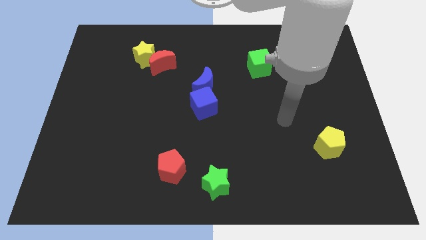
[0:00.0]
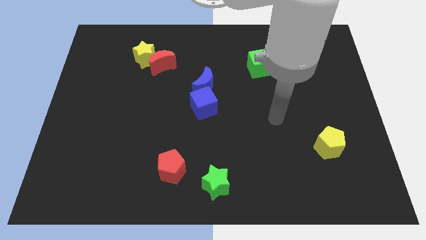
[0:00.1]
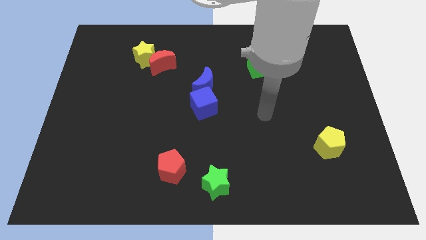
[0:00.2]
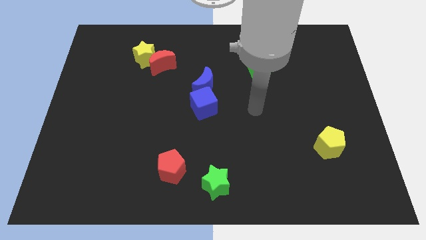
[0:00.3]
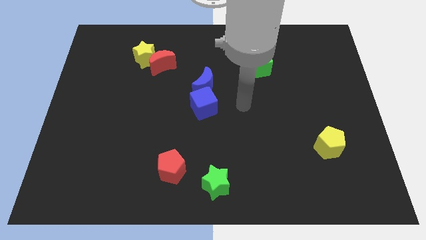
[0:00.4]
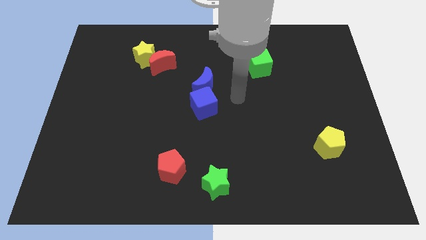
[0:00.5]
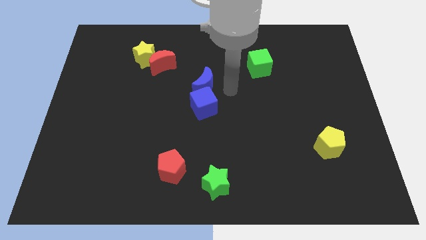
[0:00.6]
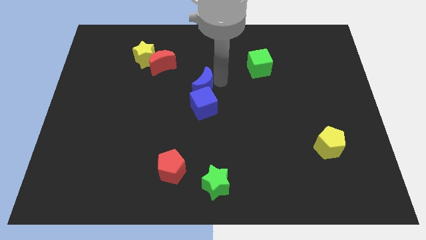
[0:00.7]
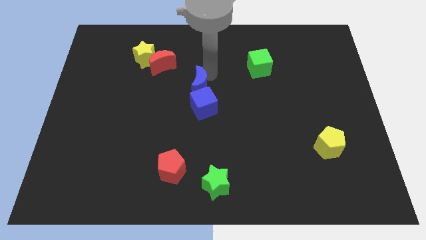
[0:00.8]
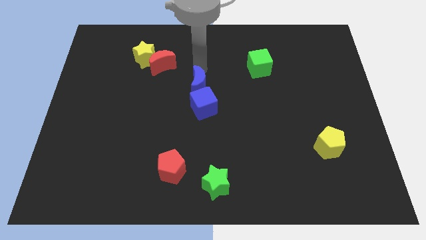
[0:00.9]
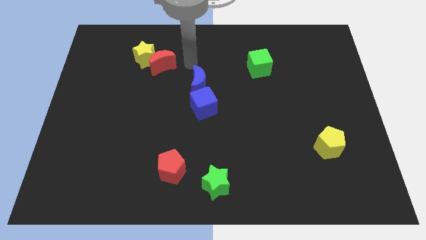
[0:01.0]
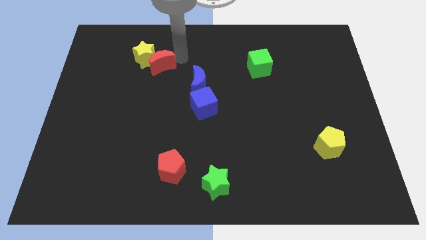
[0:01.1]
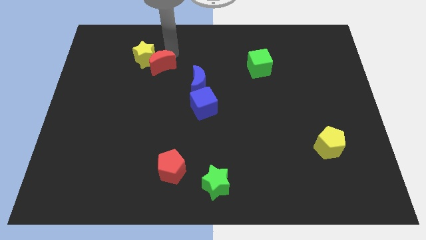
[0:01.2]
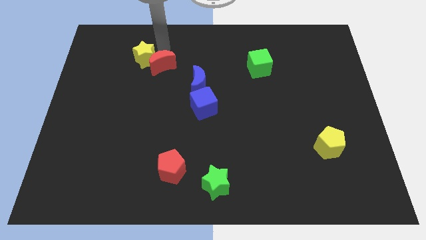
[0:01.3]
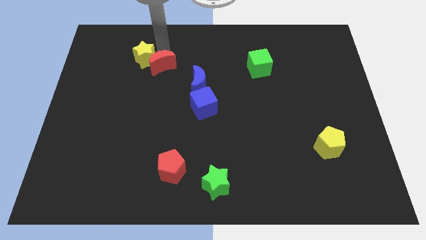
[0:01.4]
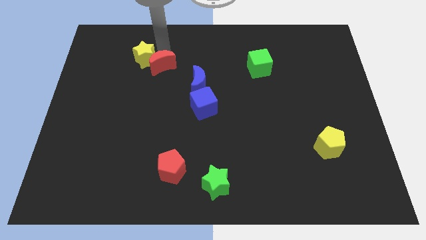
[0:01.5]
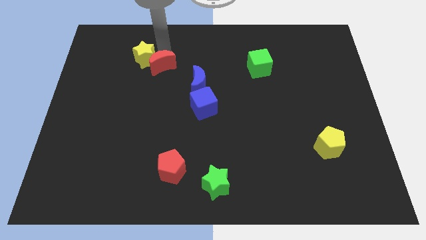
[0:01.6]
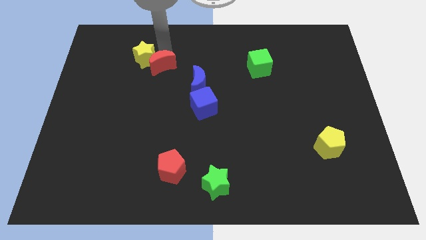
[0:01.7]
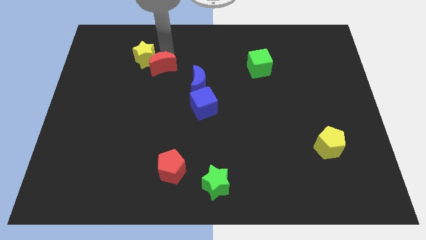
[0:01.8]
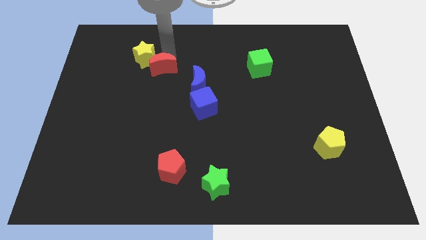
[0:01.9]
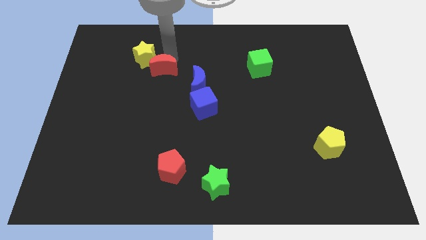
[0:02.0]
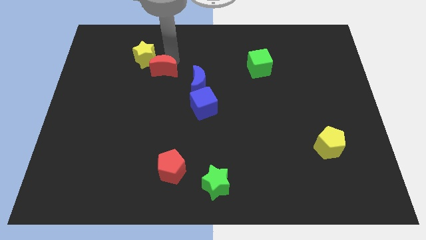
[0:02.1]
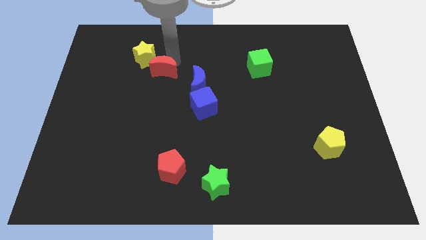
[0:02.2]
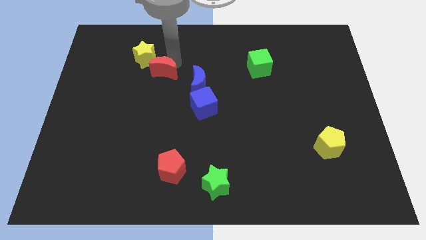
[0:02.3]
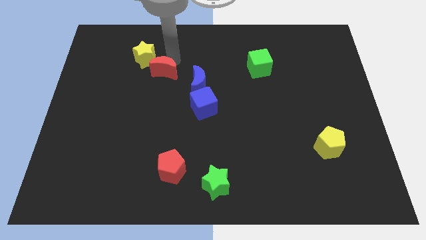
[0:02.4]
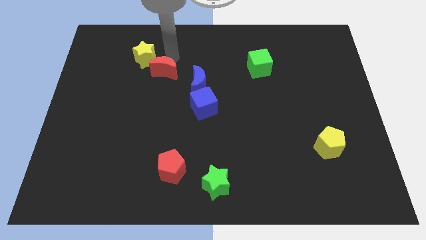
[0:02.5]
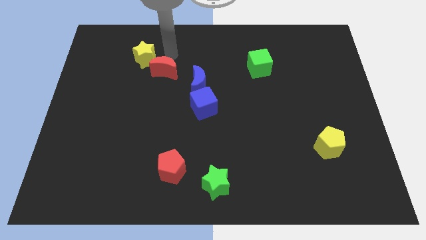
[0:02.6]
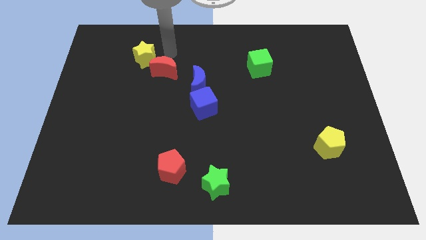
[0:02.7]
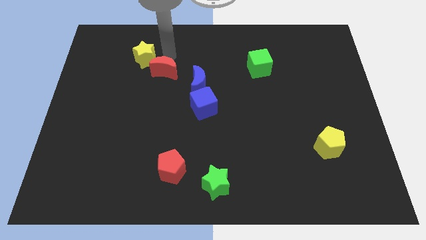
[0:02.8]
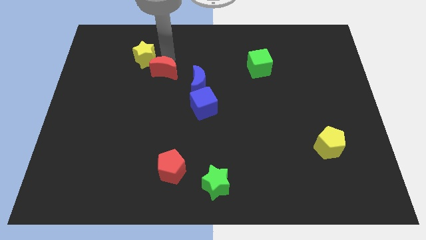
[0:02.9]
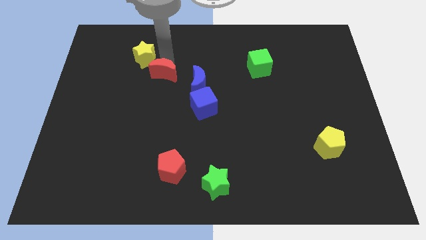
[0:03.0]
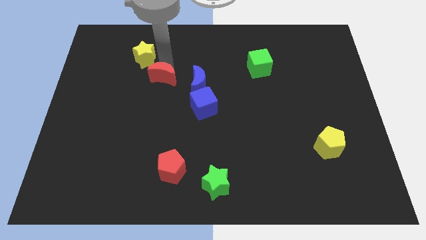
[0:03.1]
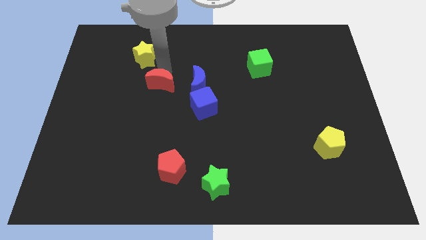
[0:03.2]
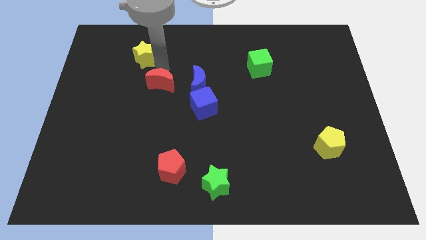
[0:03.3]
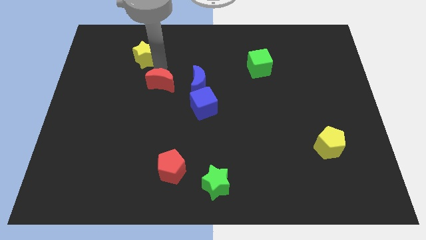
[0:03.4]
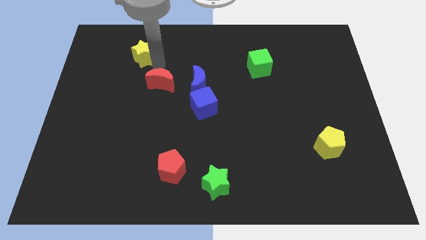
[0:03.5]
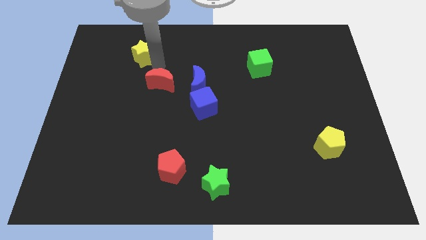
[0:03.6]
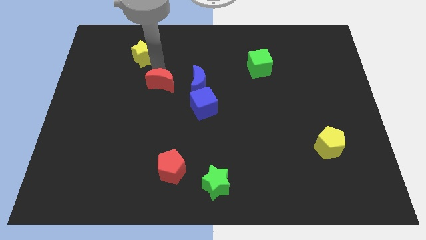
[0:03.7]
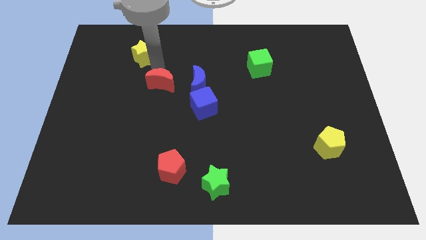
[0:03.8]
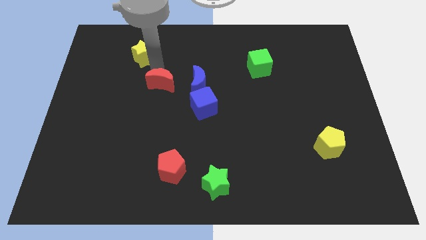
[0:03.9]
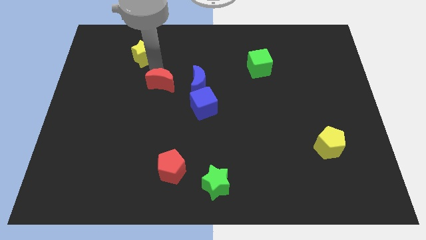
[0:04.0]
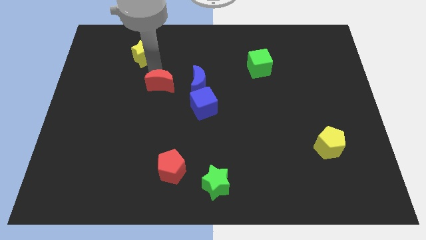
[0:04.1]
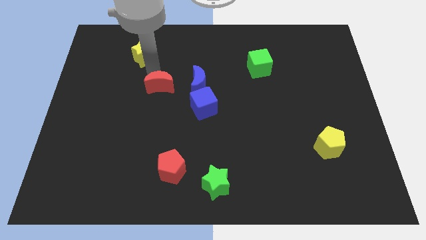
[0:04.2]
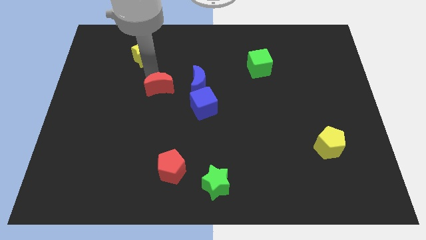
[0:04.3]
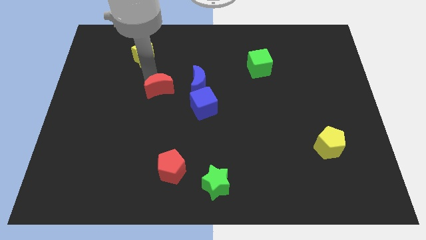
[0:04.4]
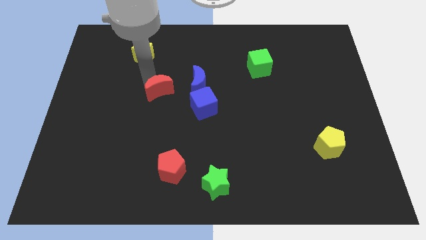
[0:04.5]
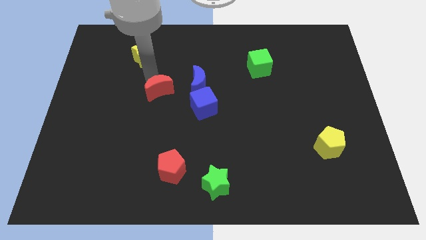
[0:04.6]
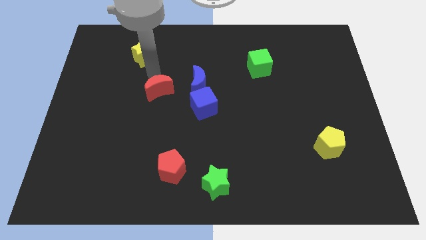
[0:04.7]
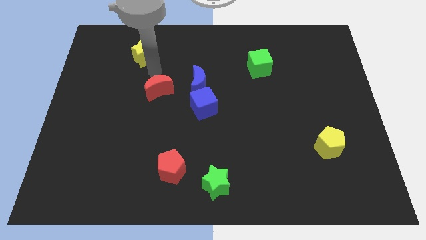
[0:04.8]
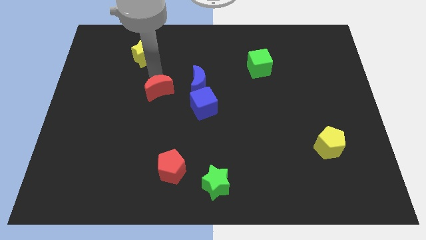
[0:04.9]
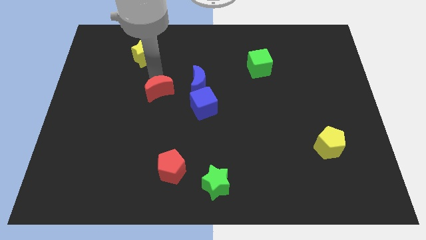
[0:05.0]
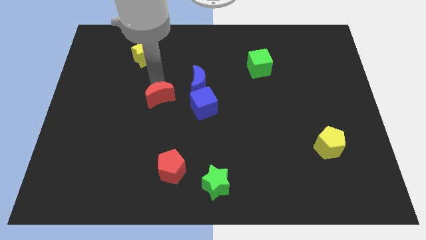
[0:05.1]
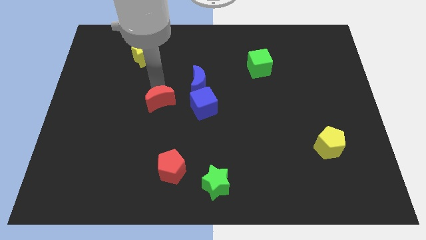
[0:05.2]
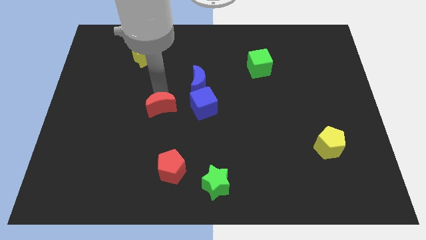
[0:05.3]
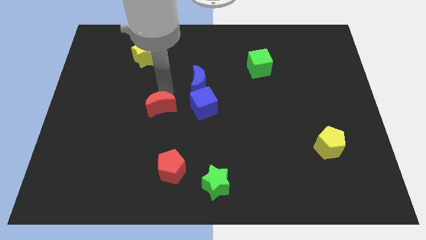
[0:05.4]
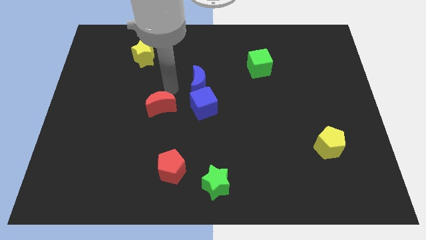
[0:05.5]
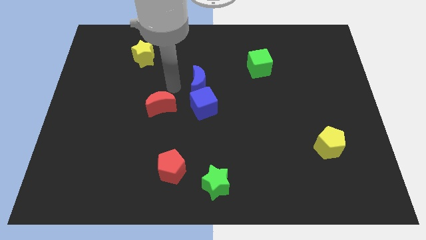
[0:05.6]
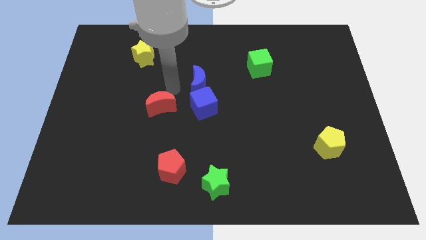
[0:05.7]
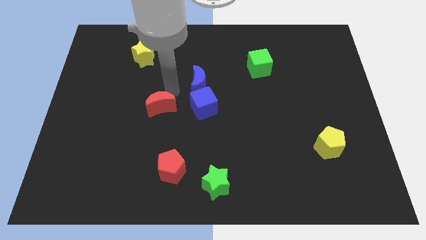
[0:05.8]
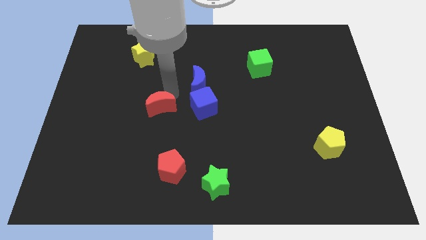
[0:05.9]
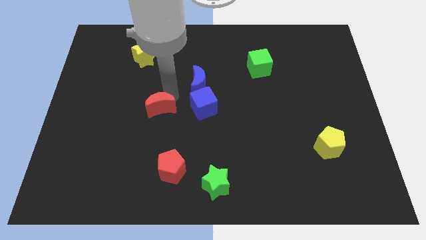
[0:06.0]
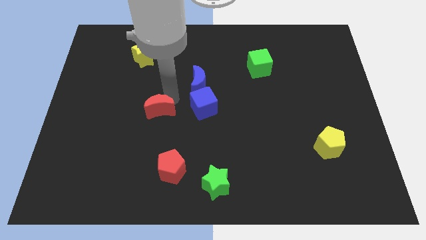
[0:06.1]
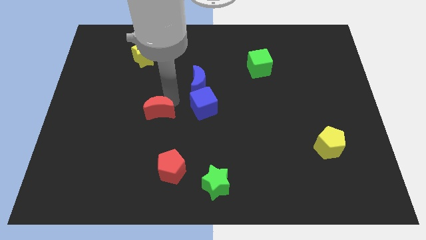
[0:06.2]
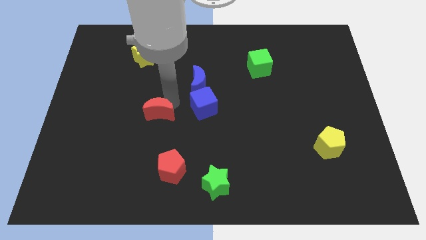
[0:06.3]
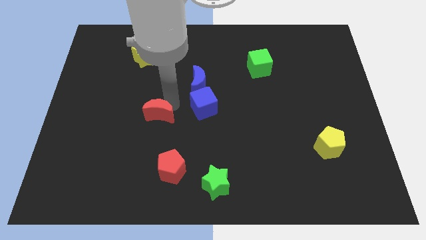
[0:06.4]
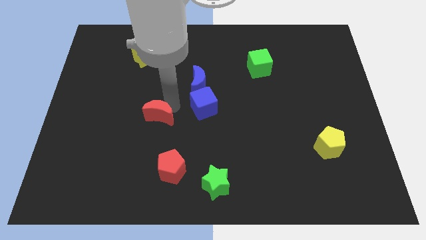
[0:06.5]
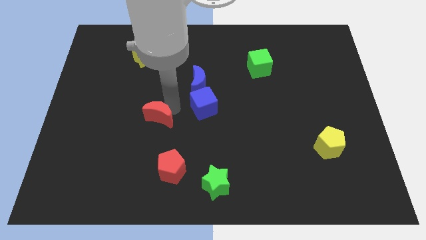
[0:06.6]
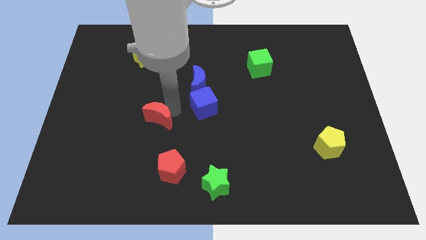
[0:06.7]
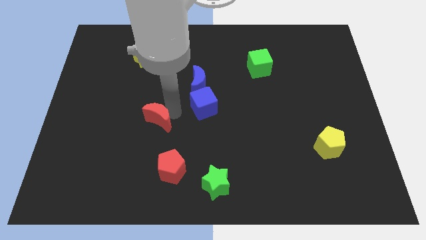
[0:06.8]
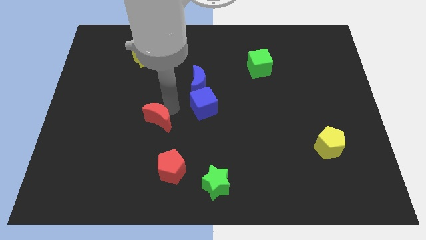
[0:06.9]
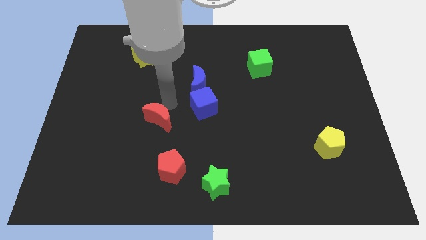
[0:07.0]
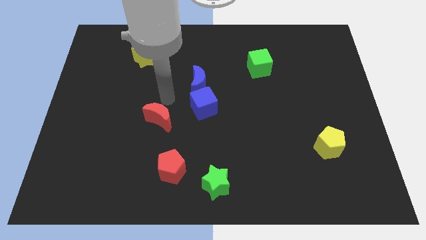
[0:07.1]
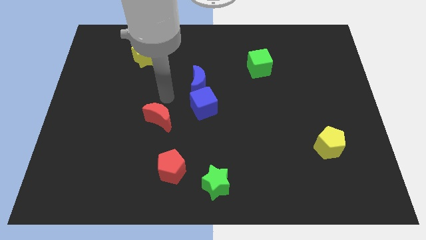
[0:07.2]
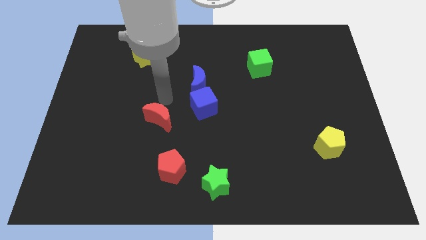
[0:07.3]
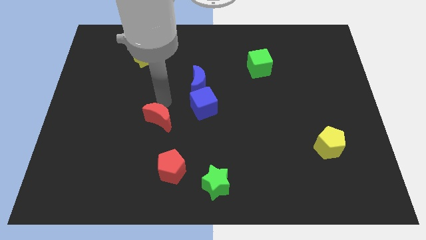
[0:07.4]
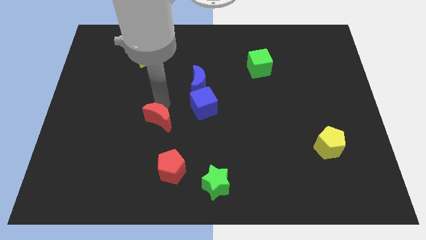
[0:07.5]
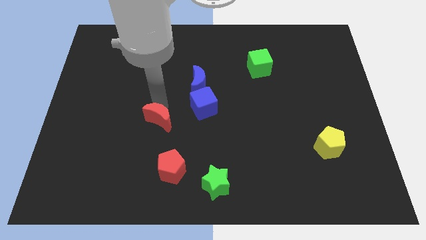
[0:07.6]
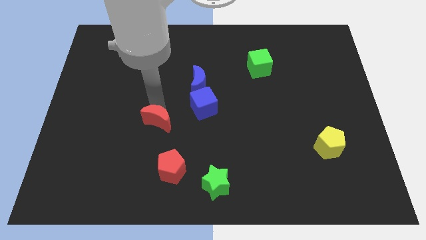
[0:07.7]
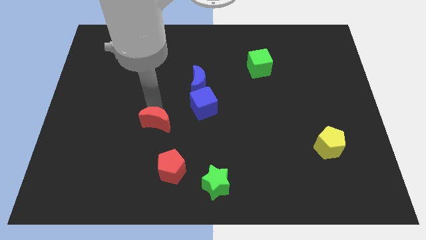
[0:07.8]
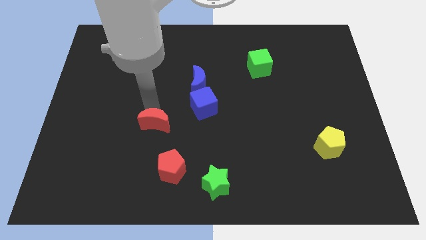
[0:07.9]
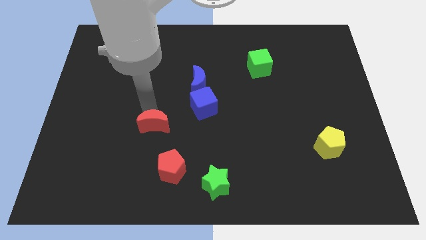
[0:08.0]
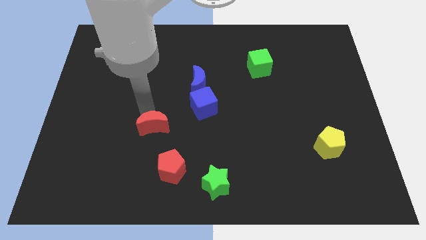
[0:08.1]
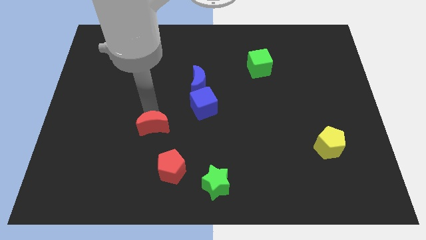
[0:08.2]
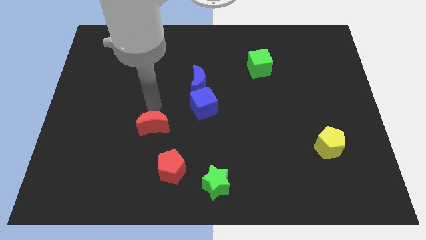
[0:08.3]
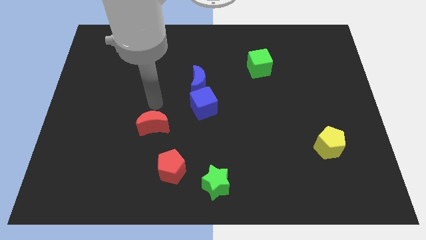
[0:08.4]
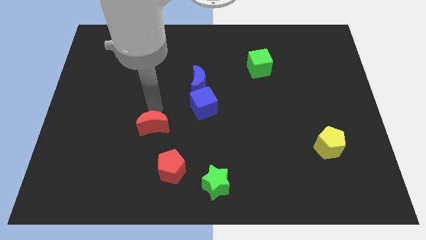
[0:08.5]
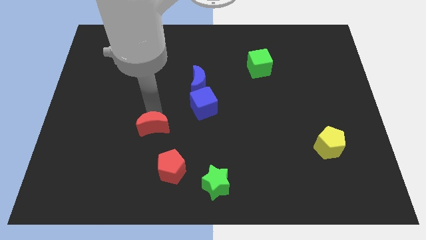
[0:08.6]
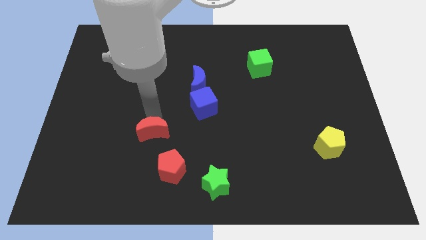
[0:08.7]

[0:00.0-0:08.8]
move the red moon downwards
